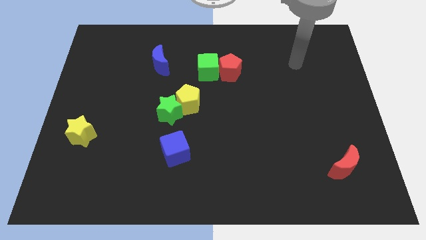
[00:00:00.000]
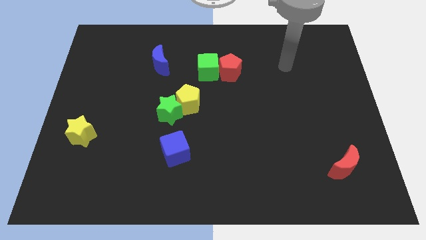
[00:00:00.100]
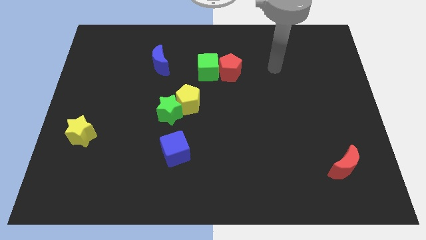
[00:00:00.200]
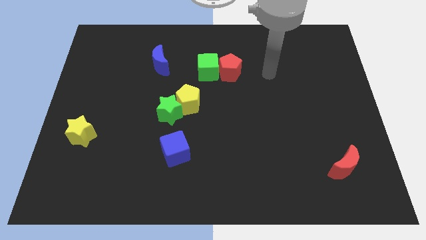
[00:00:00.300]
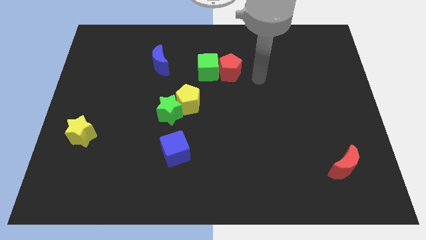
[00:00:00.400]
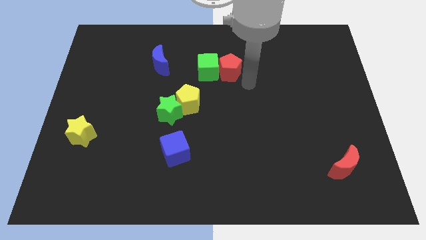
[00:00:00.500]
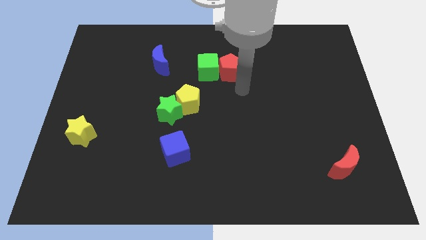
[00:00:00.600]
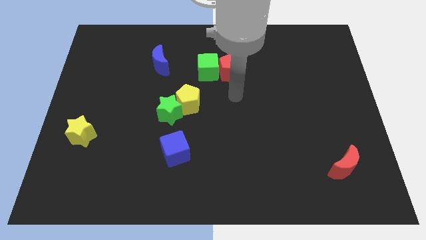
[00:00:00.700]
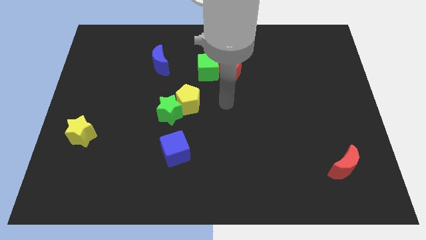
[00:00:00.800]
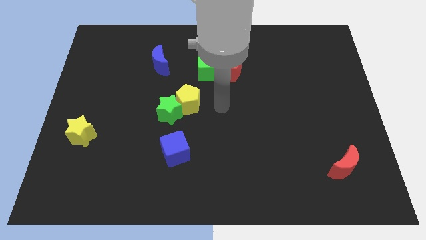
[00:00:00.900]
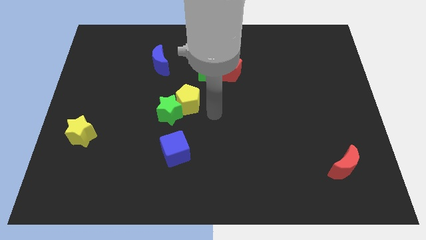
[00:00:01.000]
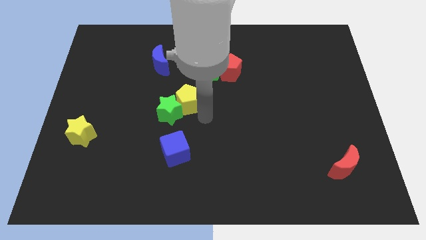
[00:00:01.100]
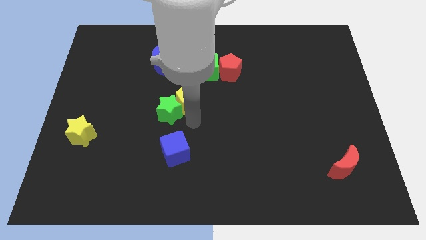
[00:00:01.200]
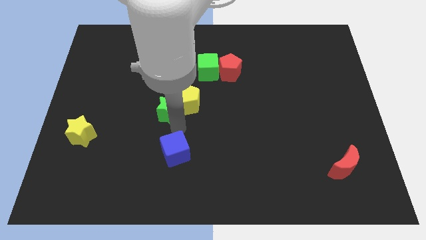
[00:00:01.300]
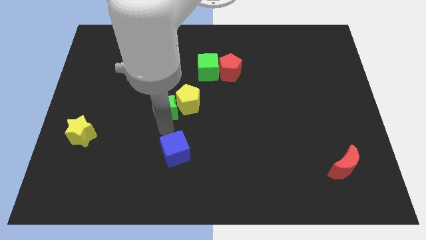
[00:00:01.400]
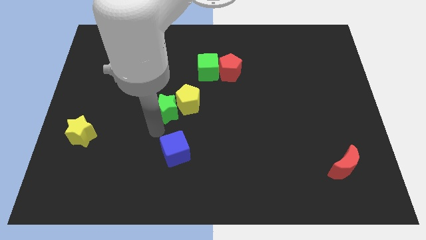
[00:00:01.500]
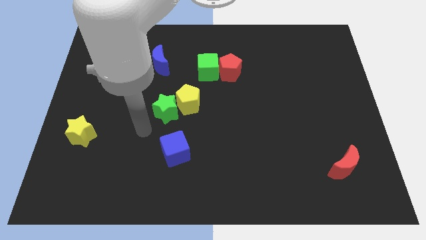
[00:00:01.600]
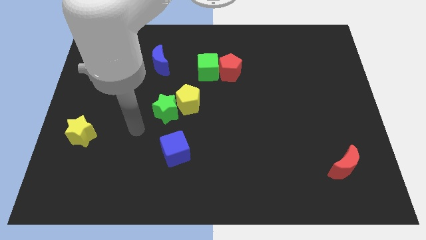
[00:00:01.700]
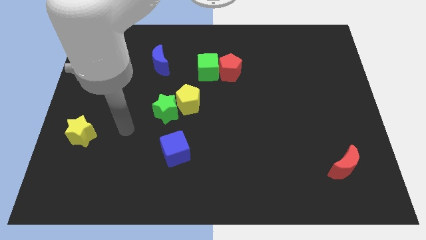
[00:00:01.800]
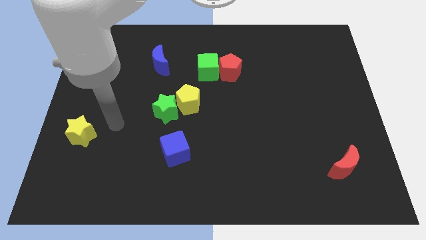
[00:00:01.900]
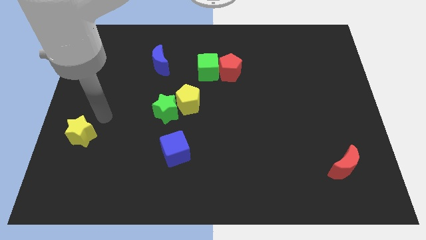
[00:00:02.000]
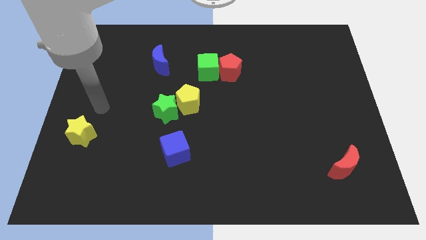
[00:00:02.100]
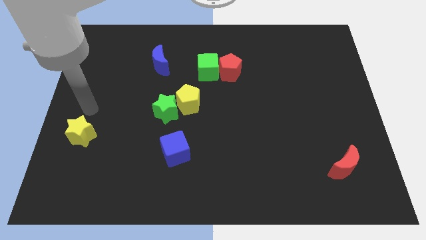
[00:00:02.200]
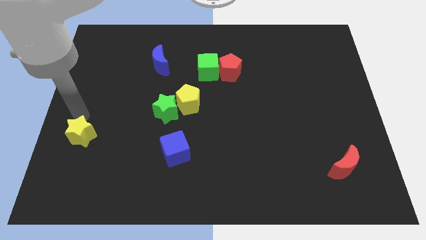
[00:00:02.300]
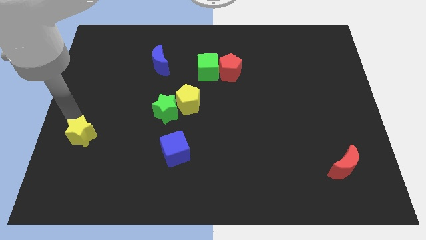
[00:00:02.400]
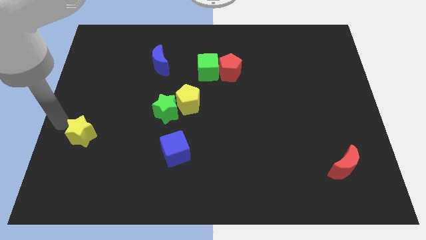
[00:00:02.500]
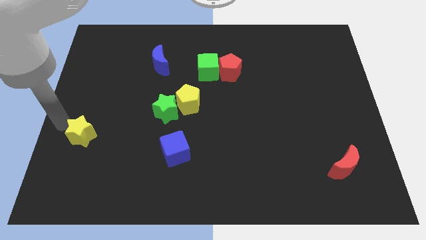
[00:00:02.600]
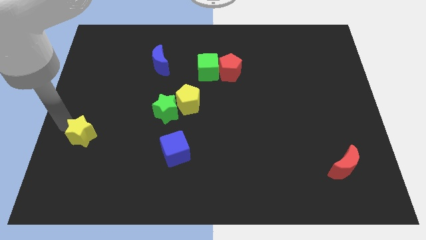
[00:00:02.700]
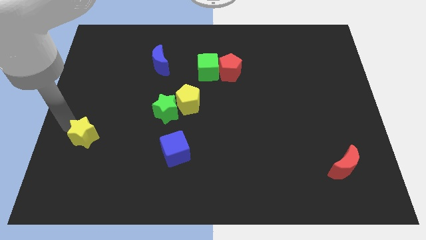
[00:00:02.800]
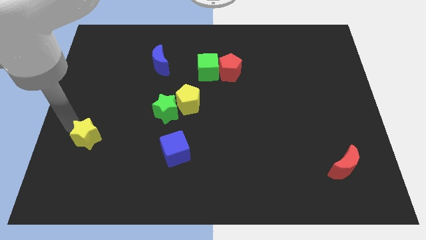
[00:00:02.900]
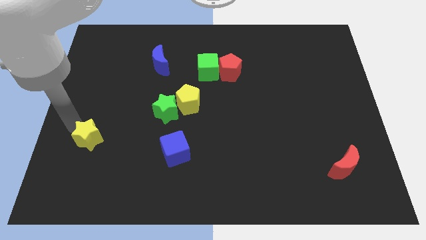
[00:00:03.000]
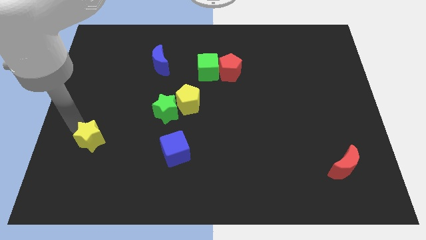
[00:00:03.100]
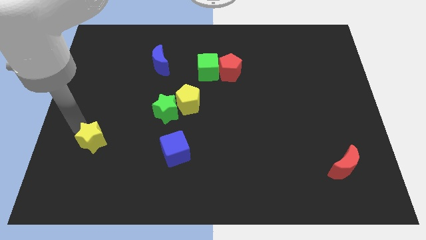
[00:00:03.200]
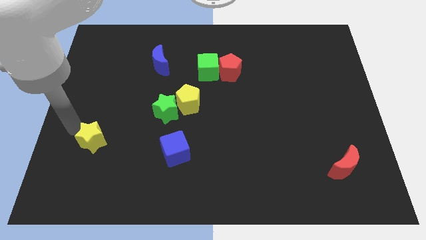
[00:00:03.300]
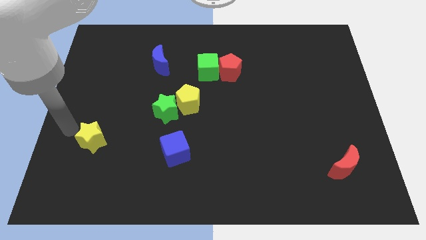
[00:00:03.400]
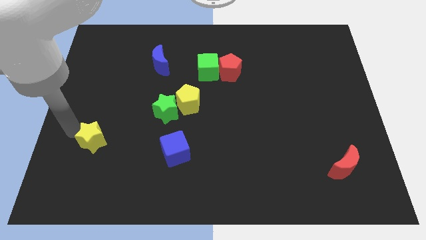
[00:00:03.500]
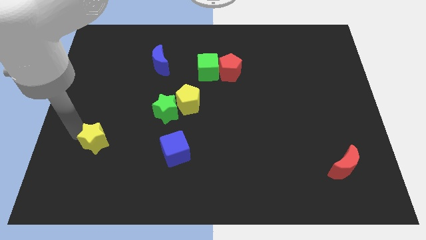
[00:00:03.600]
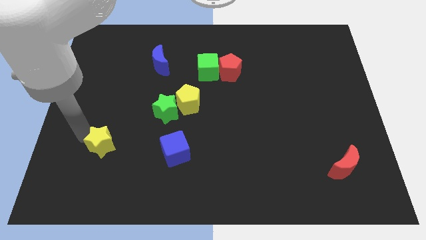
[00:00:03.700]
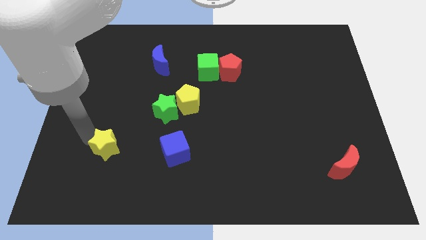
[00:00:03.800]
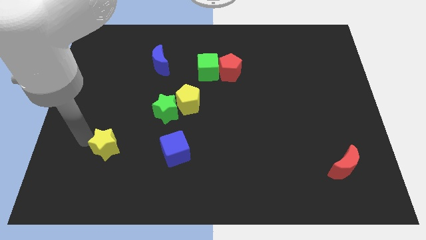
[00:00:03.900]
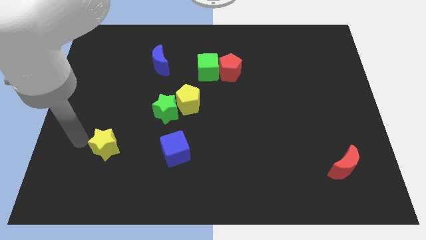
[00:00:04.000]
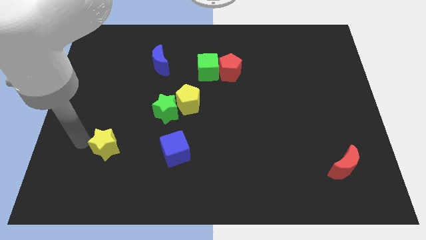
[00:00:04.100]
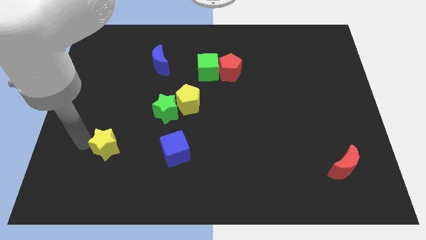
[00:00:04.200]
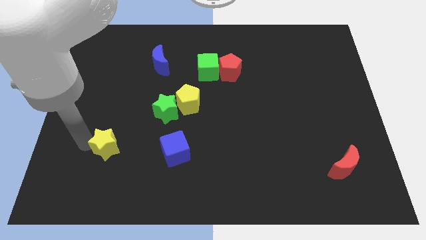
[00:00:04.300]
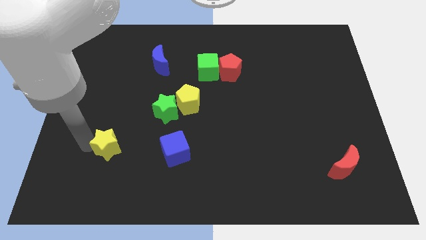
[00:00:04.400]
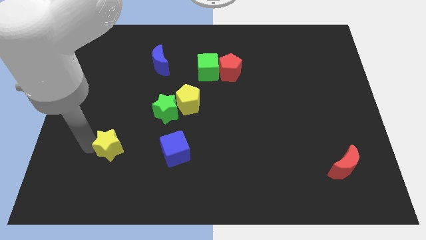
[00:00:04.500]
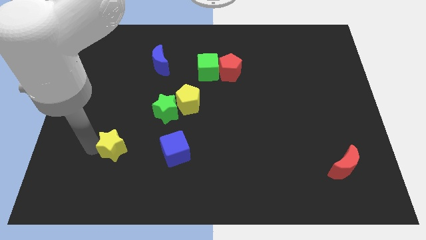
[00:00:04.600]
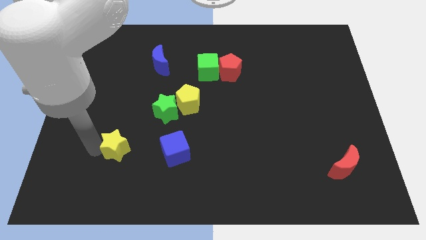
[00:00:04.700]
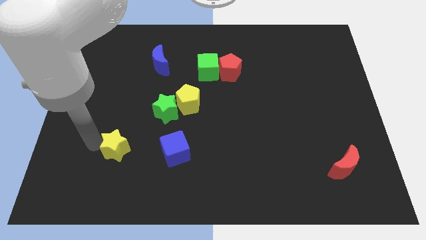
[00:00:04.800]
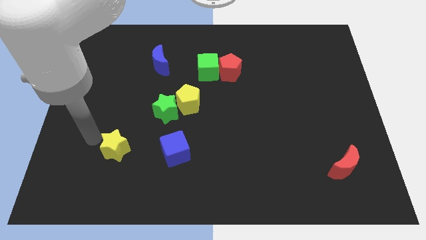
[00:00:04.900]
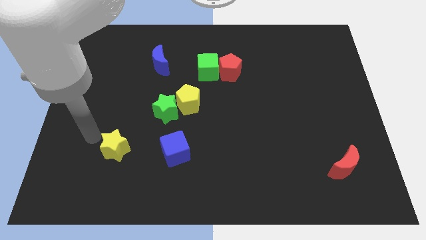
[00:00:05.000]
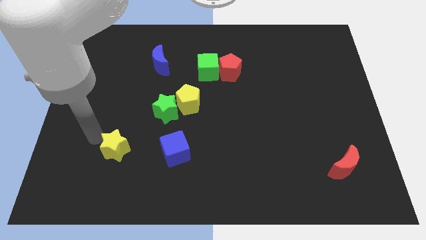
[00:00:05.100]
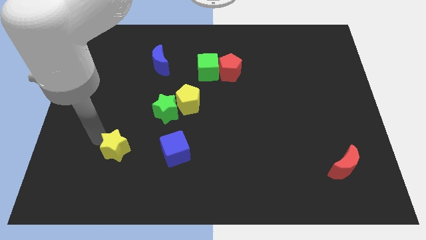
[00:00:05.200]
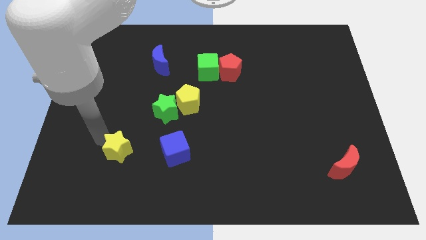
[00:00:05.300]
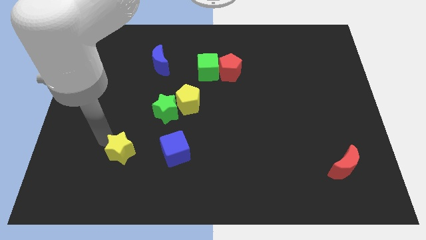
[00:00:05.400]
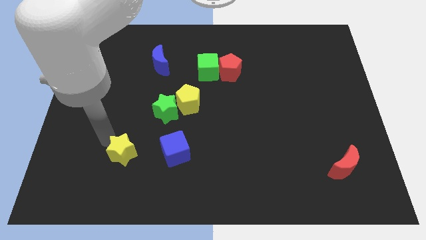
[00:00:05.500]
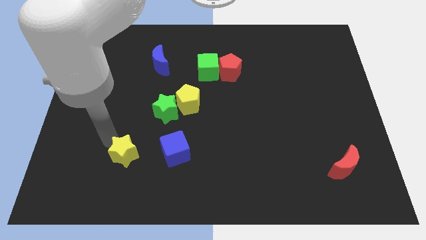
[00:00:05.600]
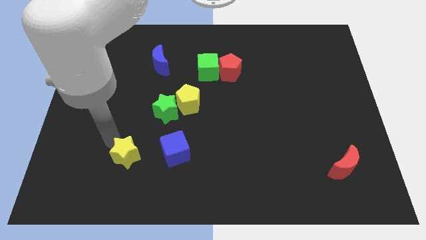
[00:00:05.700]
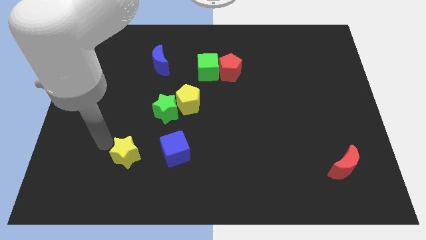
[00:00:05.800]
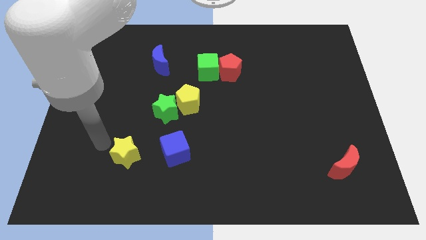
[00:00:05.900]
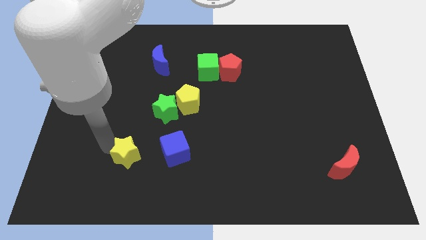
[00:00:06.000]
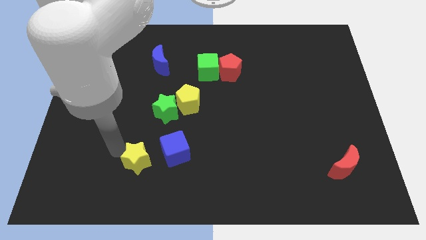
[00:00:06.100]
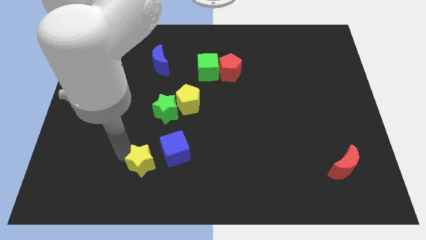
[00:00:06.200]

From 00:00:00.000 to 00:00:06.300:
slide the yellow star to the bottom of the green star
